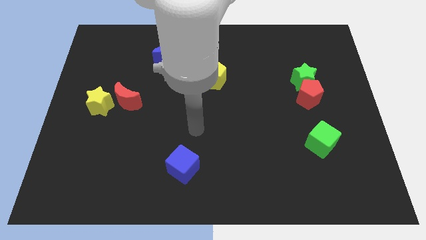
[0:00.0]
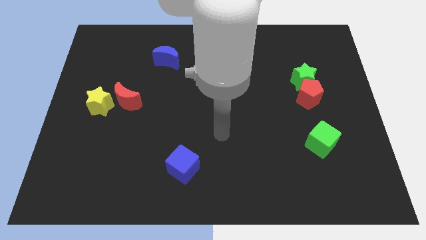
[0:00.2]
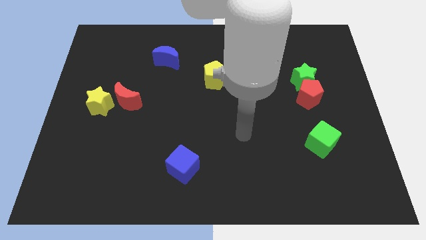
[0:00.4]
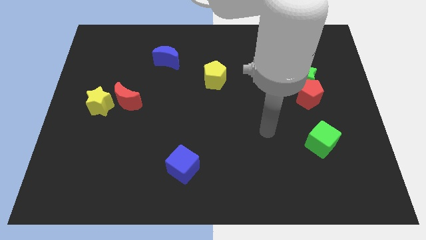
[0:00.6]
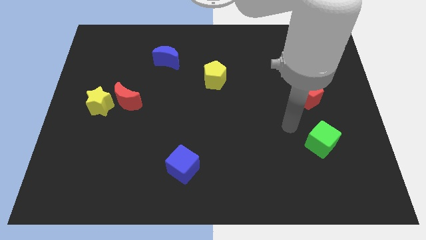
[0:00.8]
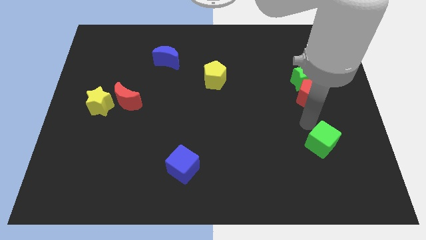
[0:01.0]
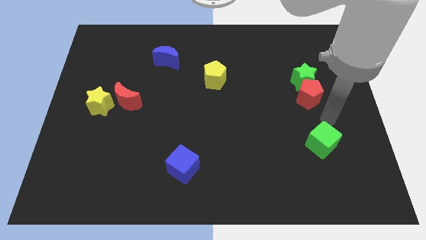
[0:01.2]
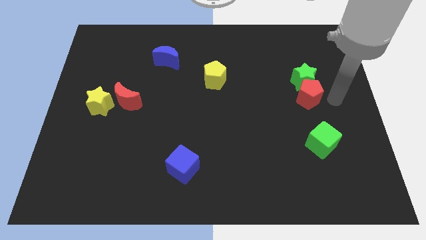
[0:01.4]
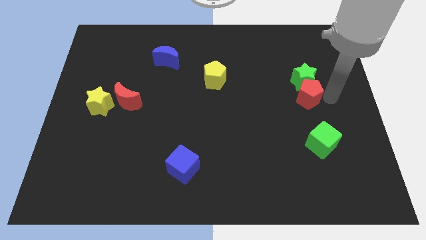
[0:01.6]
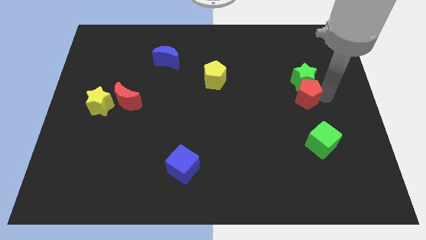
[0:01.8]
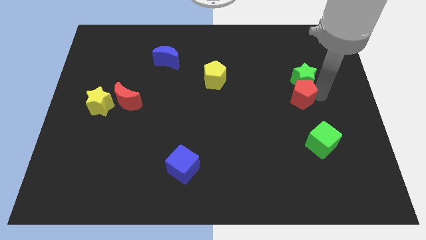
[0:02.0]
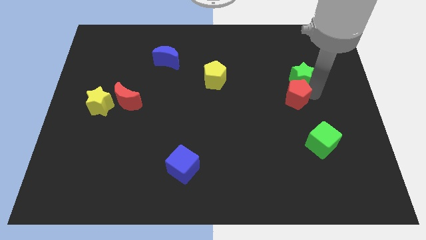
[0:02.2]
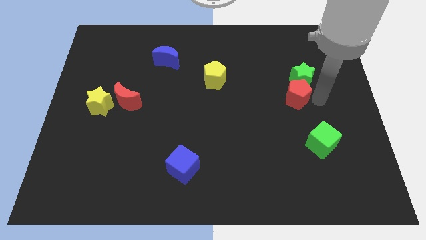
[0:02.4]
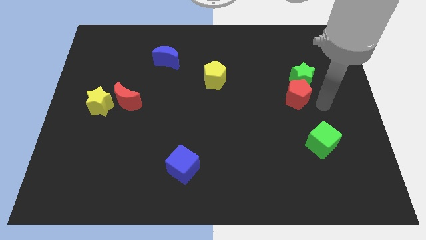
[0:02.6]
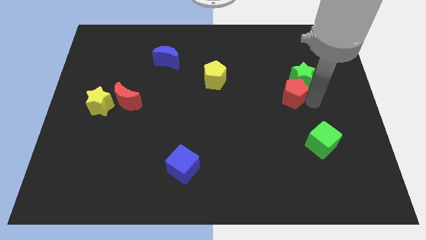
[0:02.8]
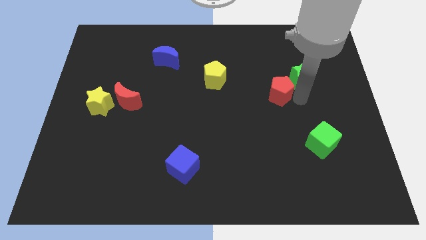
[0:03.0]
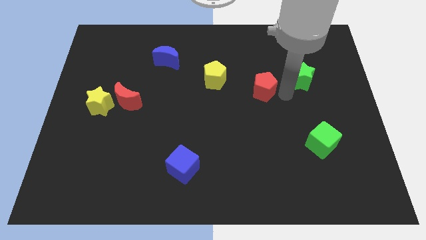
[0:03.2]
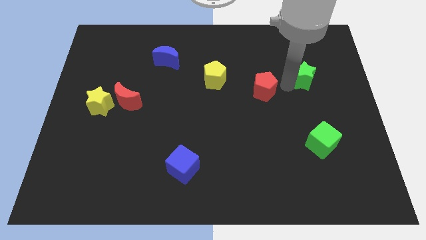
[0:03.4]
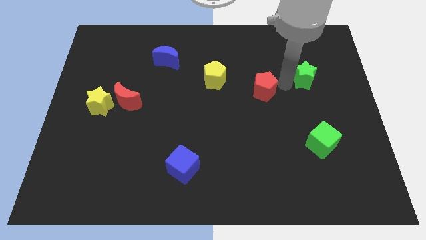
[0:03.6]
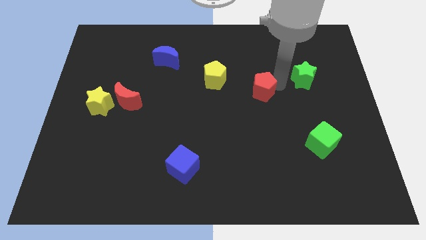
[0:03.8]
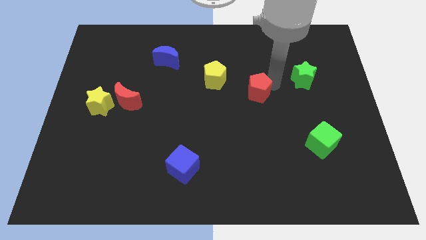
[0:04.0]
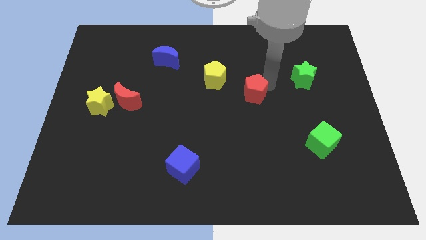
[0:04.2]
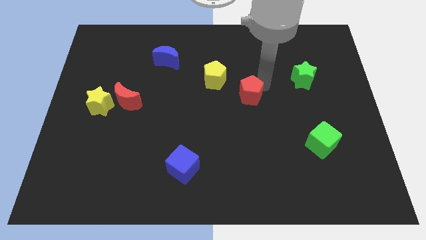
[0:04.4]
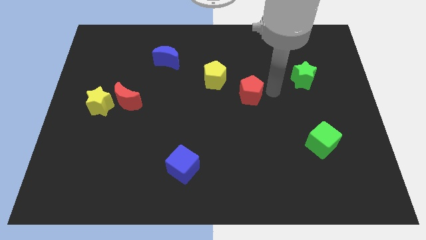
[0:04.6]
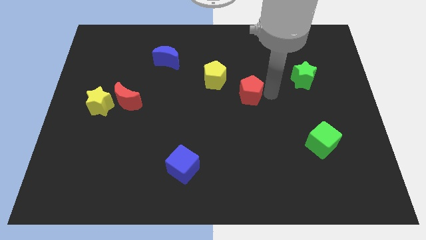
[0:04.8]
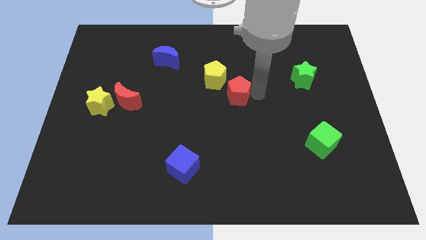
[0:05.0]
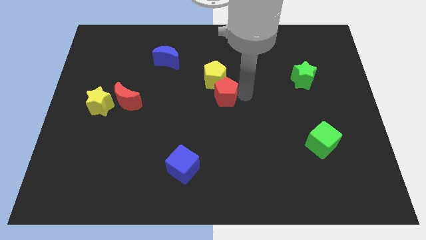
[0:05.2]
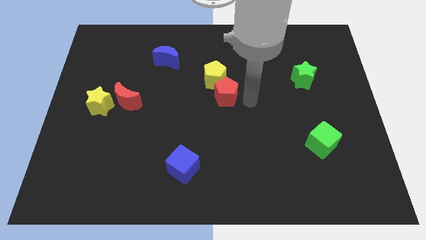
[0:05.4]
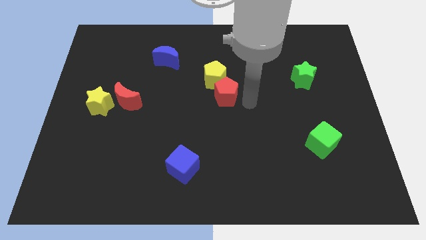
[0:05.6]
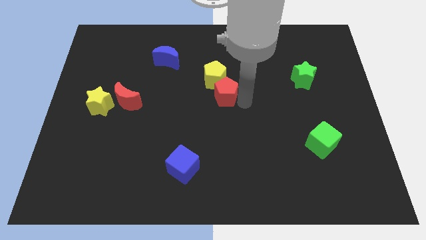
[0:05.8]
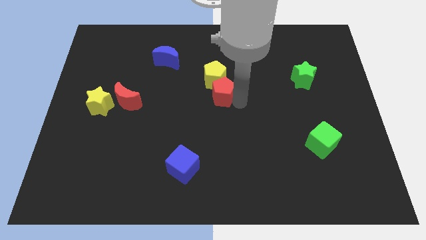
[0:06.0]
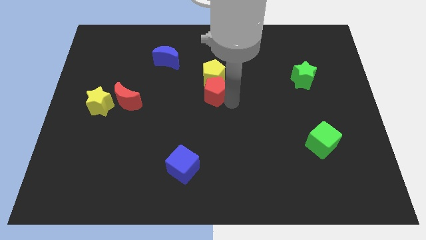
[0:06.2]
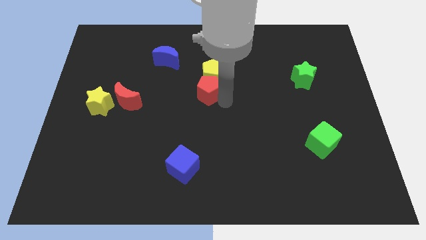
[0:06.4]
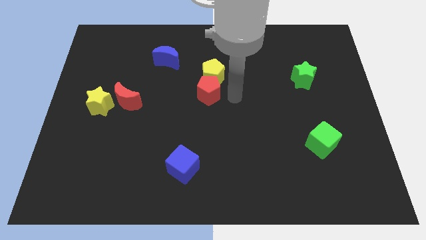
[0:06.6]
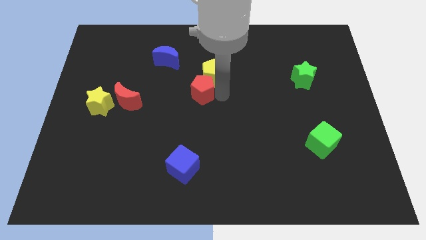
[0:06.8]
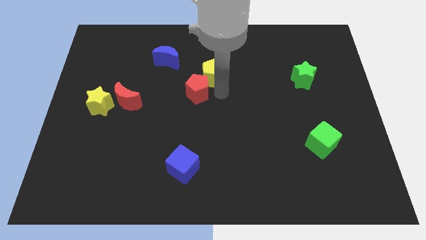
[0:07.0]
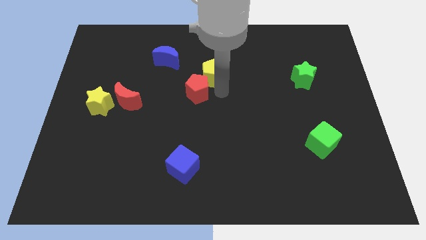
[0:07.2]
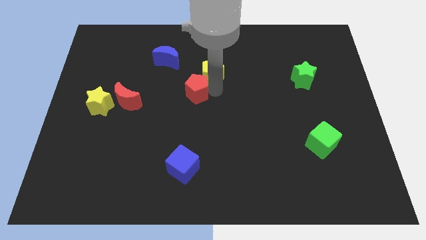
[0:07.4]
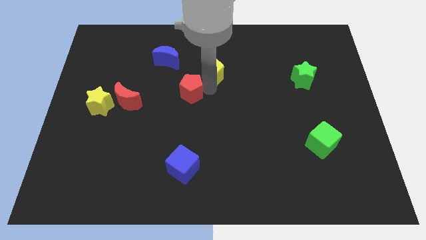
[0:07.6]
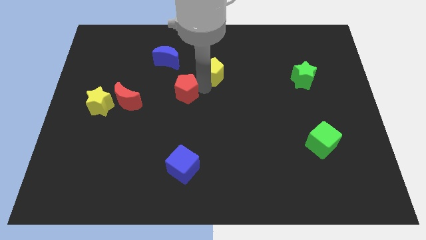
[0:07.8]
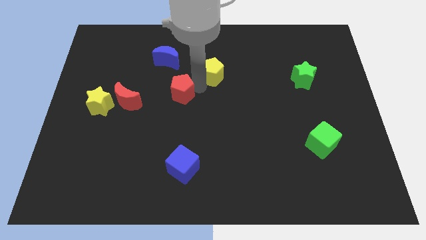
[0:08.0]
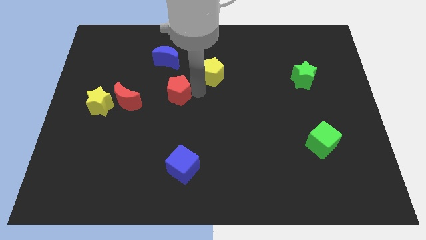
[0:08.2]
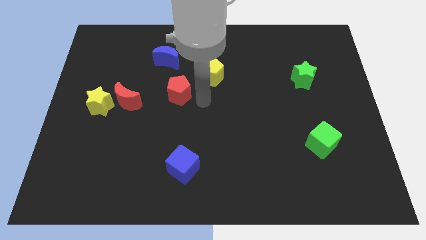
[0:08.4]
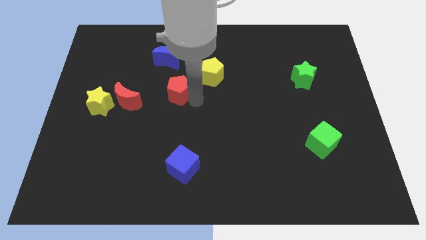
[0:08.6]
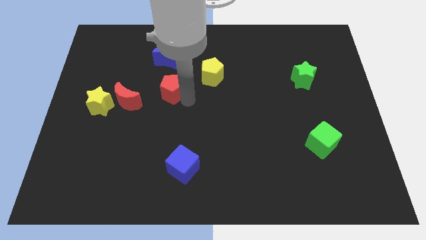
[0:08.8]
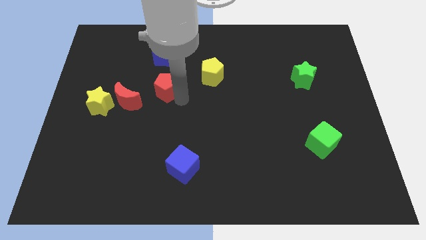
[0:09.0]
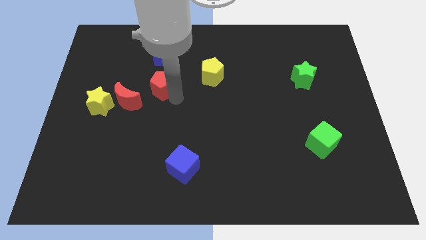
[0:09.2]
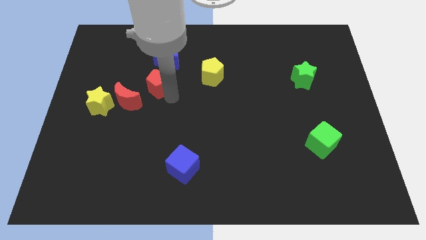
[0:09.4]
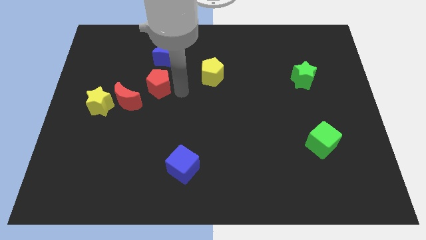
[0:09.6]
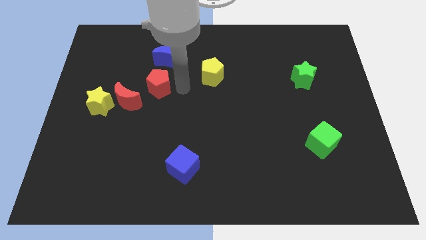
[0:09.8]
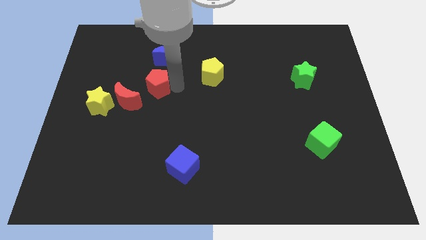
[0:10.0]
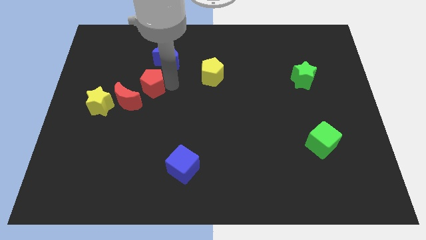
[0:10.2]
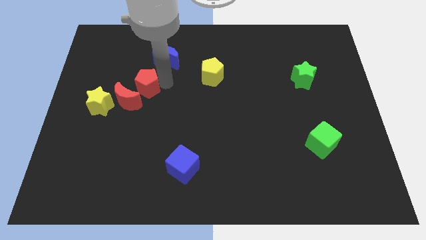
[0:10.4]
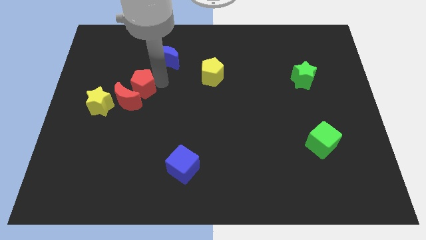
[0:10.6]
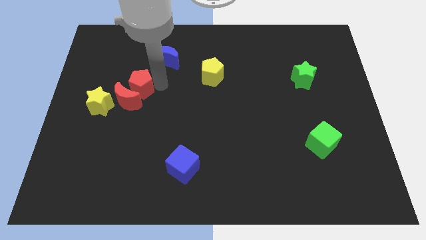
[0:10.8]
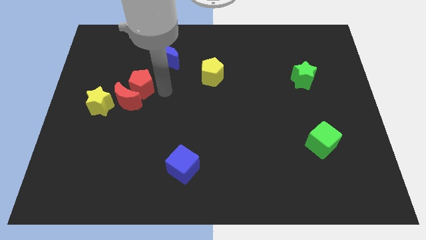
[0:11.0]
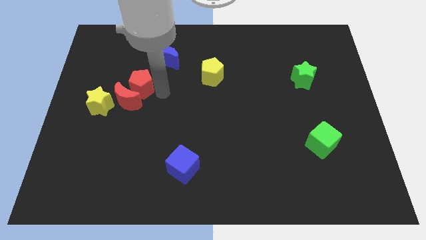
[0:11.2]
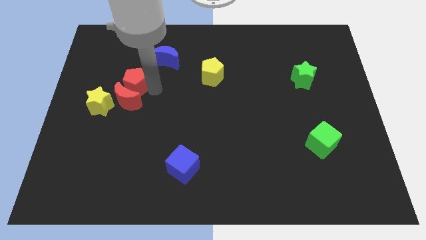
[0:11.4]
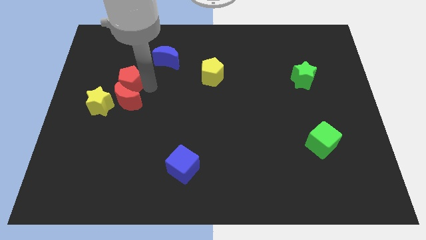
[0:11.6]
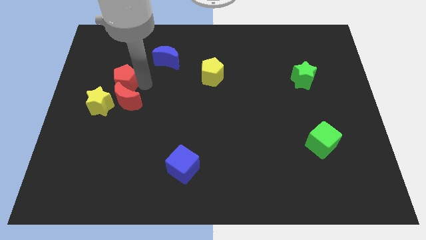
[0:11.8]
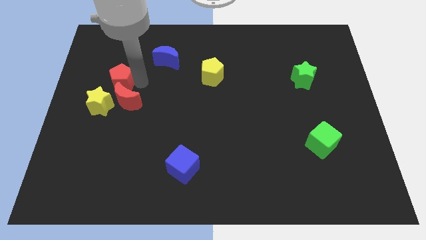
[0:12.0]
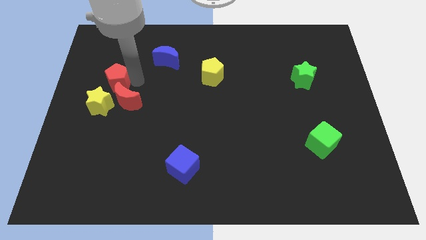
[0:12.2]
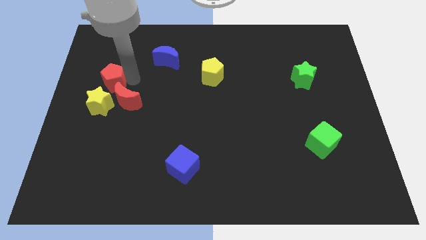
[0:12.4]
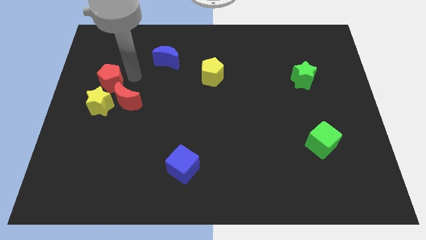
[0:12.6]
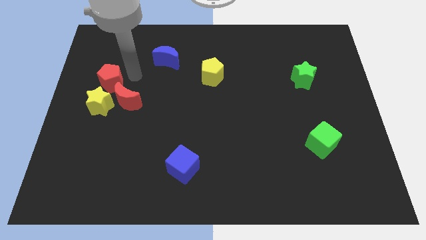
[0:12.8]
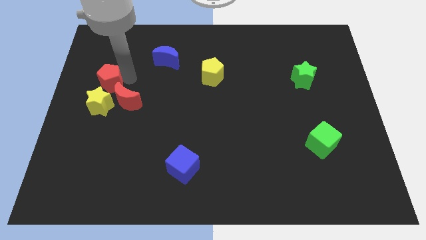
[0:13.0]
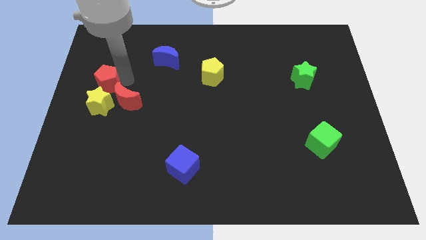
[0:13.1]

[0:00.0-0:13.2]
move the red pentagon to the left side of the board
